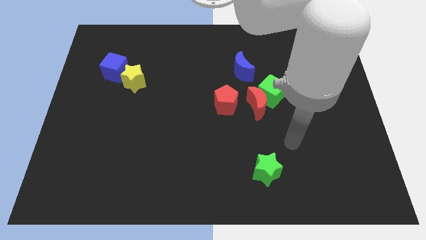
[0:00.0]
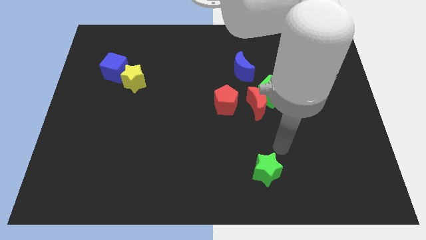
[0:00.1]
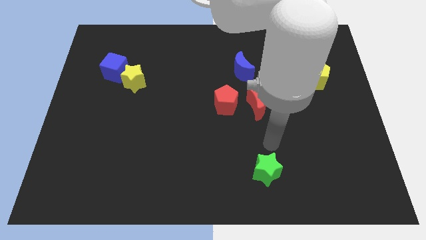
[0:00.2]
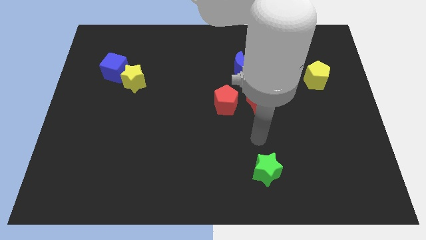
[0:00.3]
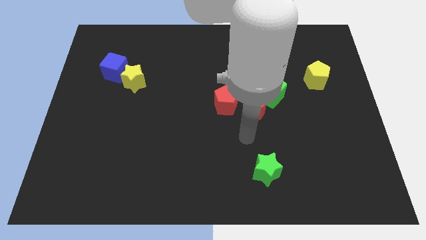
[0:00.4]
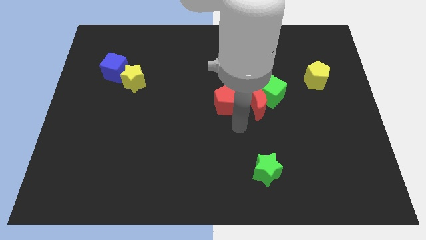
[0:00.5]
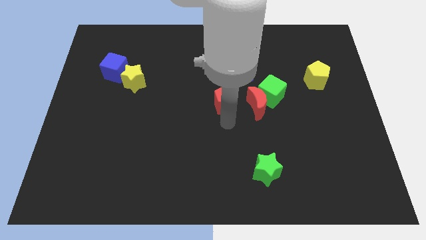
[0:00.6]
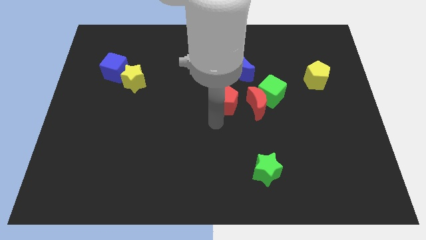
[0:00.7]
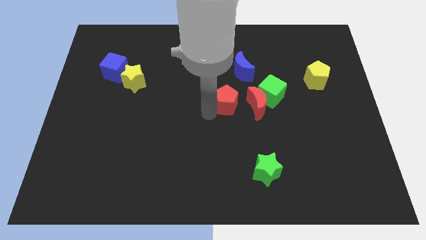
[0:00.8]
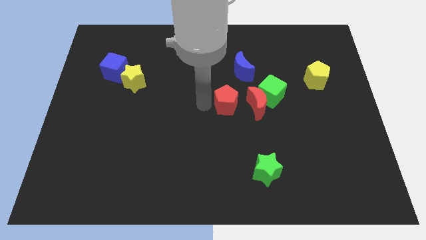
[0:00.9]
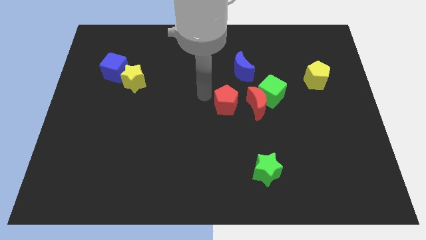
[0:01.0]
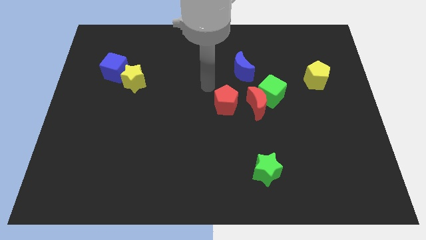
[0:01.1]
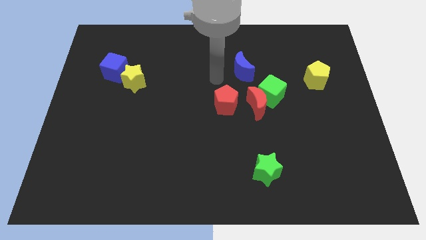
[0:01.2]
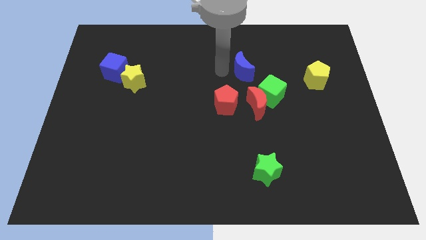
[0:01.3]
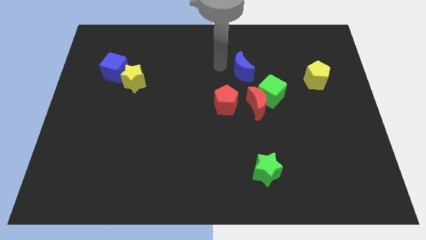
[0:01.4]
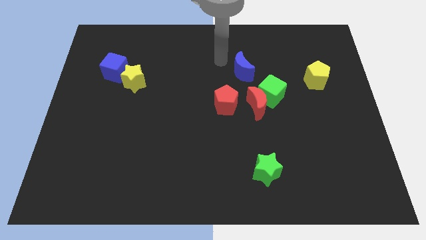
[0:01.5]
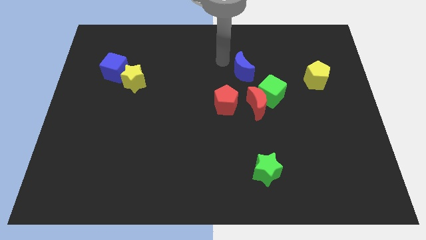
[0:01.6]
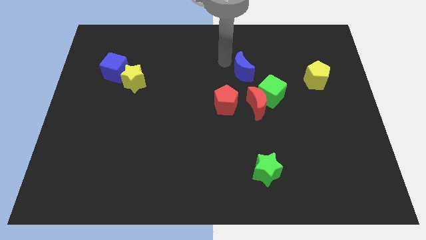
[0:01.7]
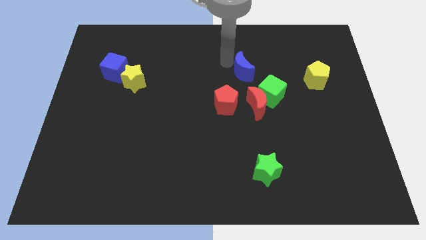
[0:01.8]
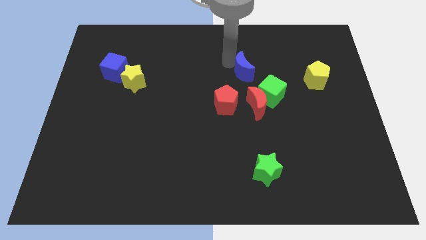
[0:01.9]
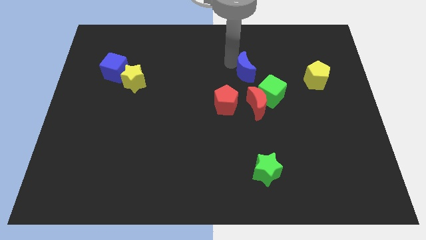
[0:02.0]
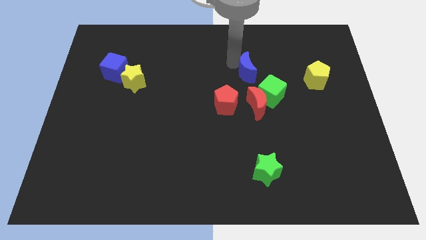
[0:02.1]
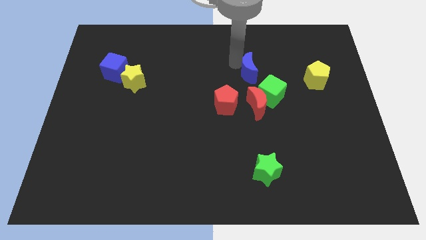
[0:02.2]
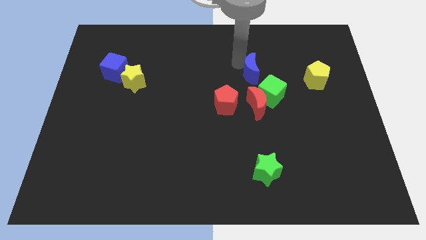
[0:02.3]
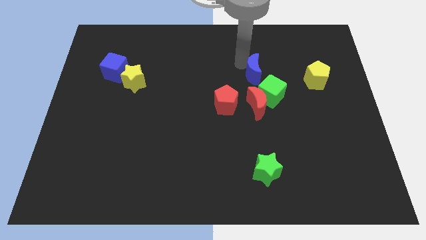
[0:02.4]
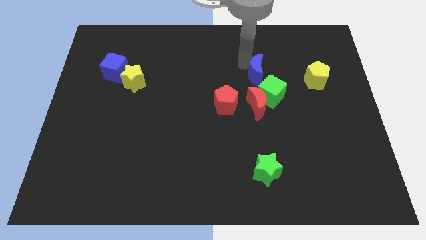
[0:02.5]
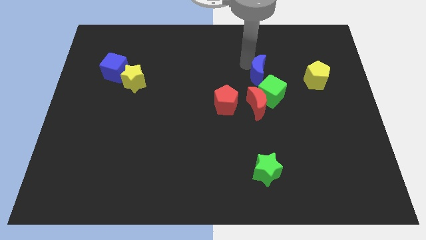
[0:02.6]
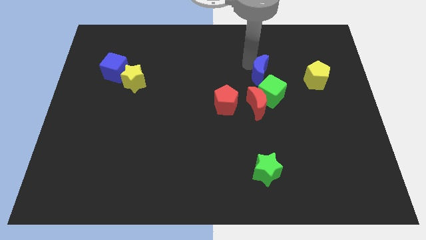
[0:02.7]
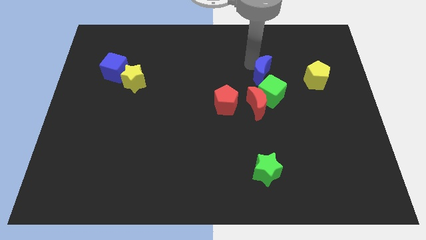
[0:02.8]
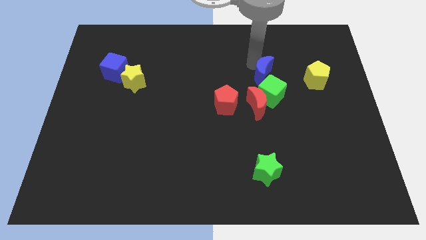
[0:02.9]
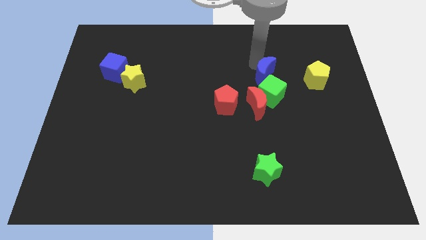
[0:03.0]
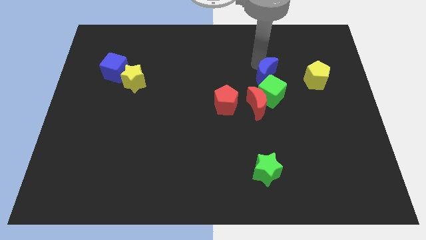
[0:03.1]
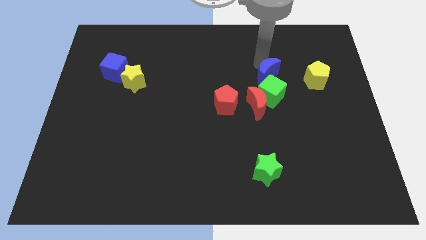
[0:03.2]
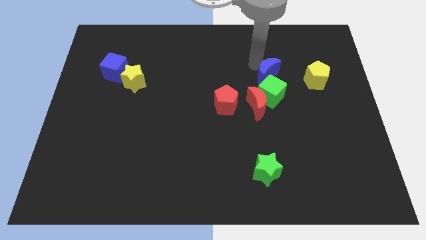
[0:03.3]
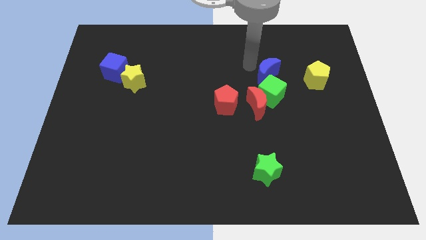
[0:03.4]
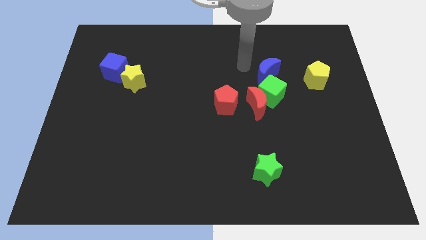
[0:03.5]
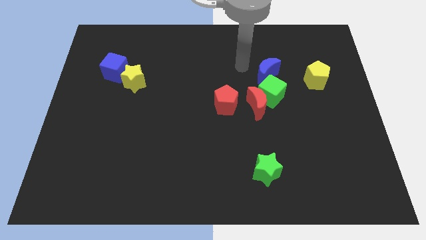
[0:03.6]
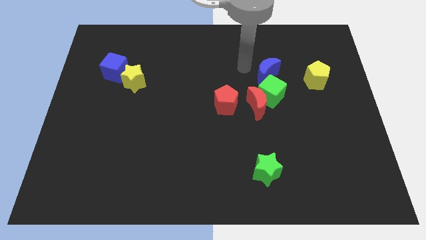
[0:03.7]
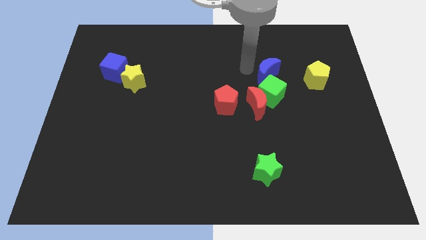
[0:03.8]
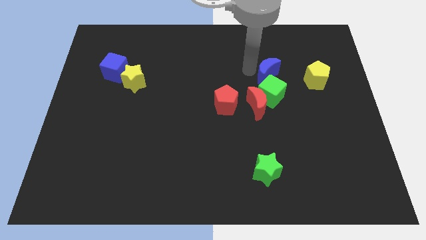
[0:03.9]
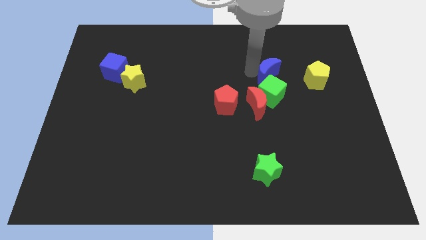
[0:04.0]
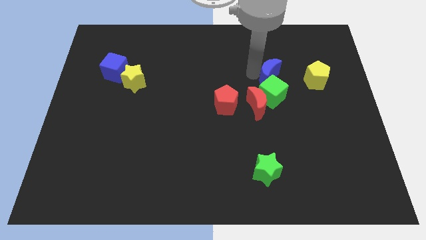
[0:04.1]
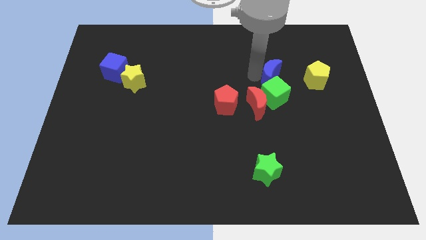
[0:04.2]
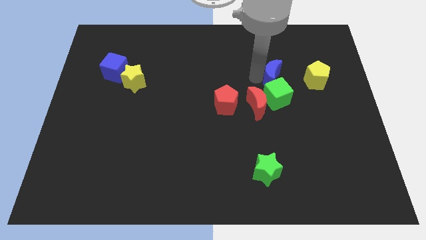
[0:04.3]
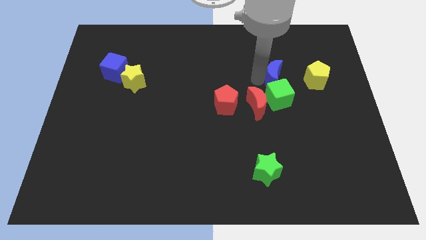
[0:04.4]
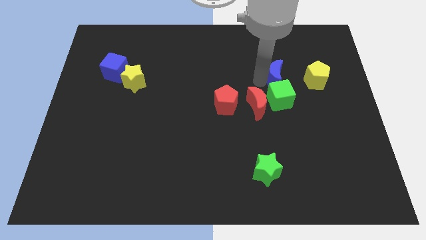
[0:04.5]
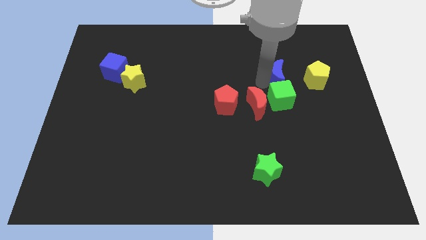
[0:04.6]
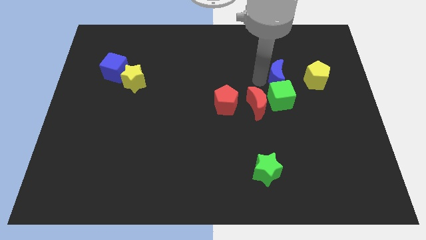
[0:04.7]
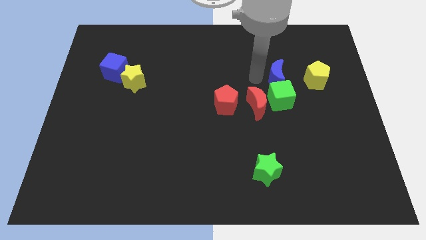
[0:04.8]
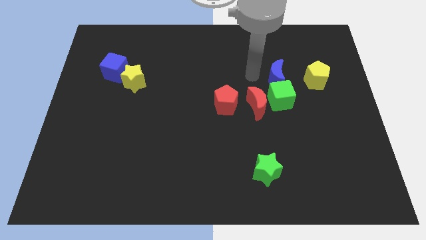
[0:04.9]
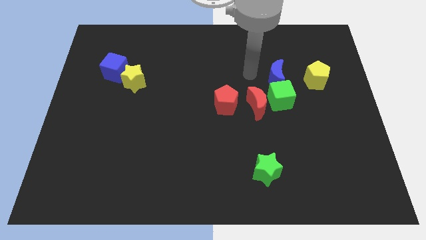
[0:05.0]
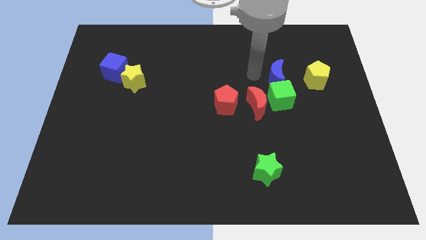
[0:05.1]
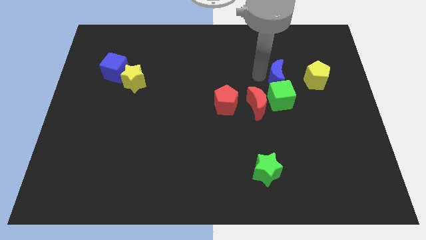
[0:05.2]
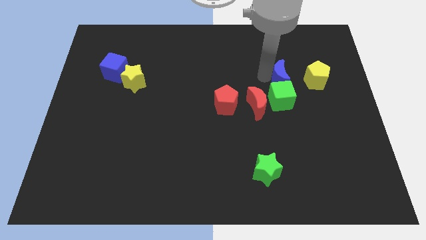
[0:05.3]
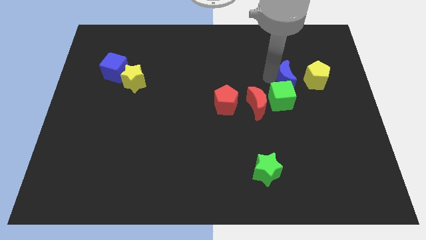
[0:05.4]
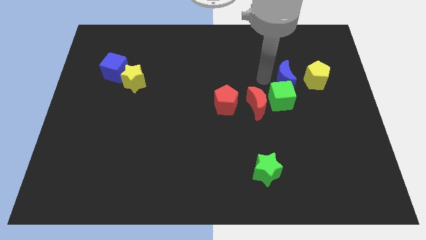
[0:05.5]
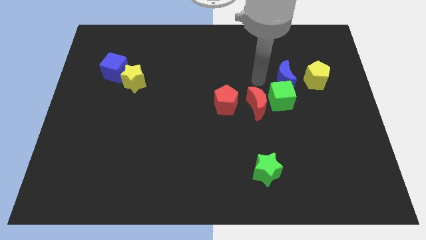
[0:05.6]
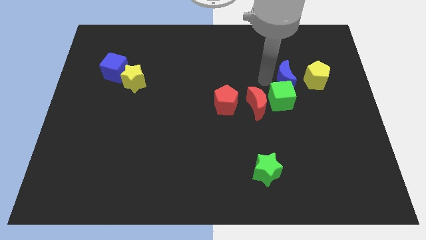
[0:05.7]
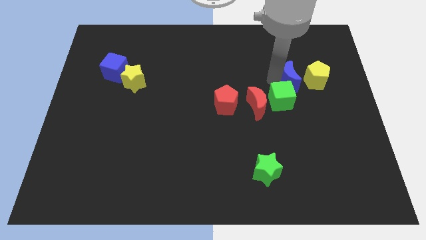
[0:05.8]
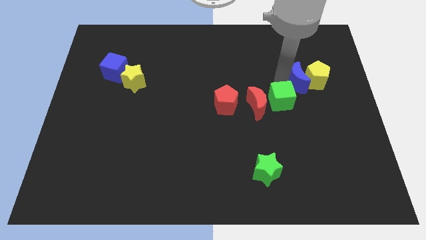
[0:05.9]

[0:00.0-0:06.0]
move the blue moon to the yellow pentagon
